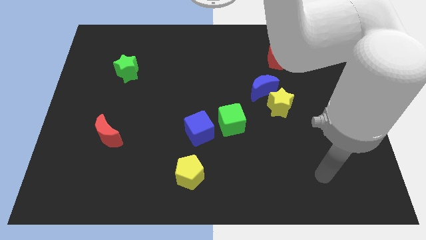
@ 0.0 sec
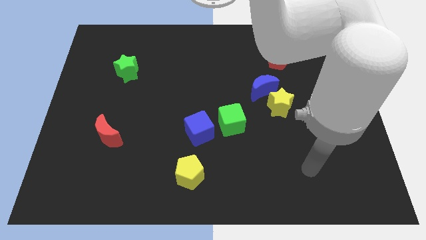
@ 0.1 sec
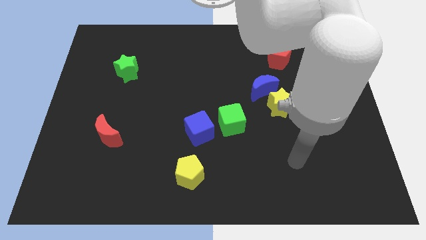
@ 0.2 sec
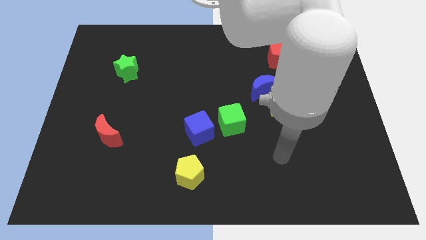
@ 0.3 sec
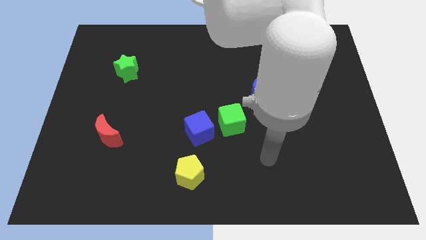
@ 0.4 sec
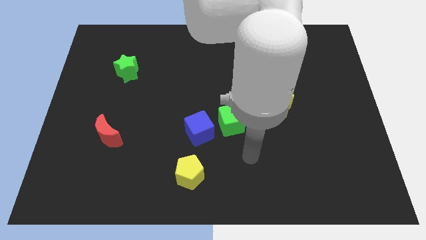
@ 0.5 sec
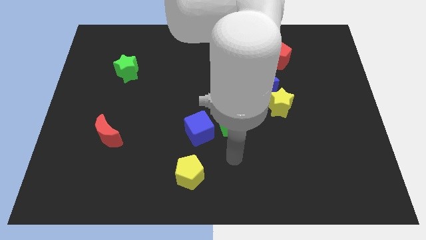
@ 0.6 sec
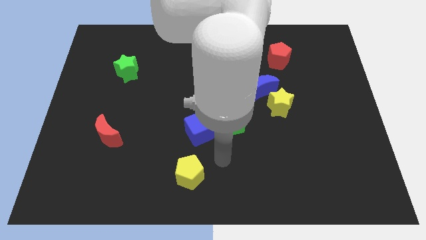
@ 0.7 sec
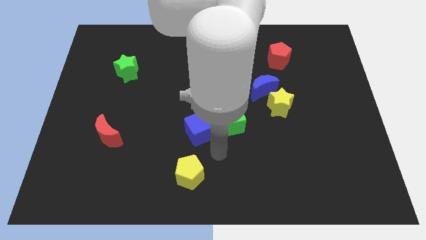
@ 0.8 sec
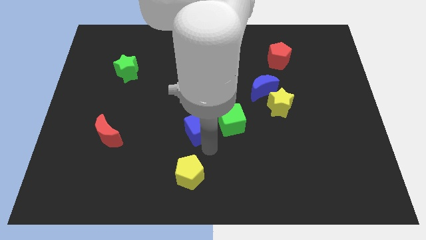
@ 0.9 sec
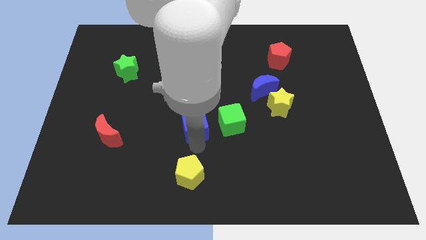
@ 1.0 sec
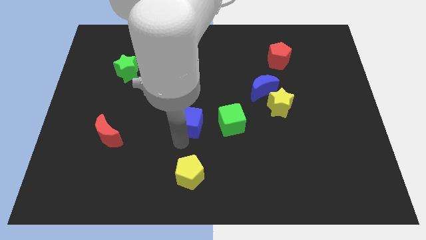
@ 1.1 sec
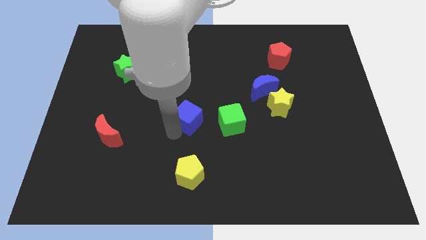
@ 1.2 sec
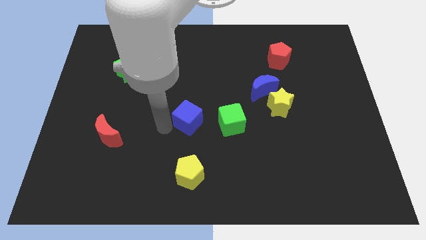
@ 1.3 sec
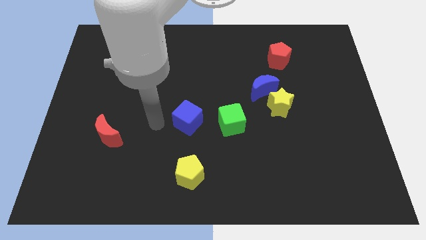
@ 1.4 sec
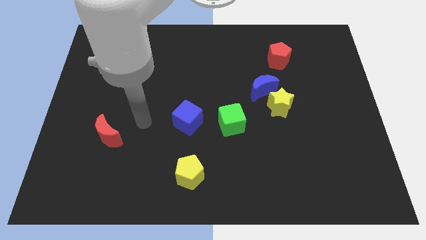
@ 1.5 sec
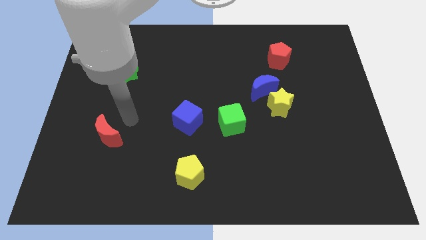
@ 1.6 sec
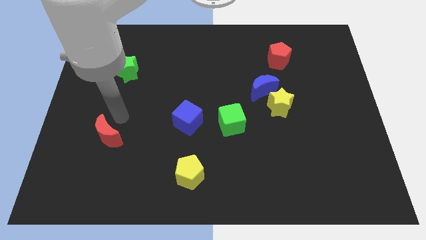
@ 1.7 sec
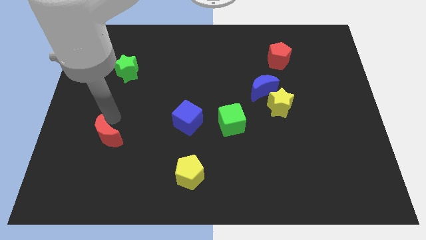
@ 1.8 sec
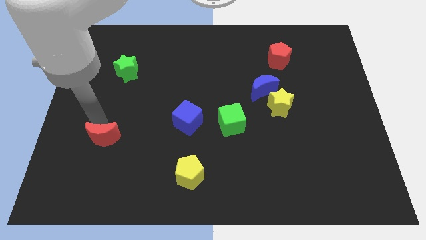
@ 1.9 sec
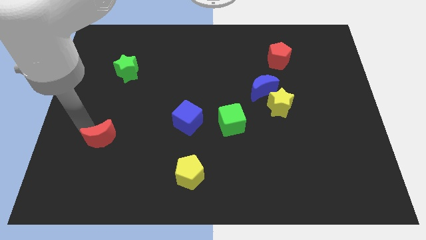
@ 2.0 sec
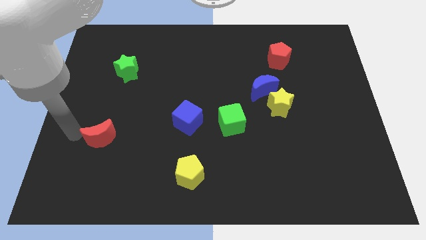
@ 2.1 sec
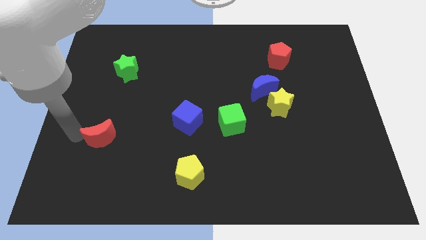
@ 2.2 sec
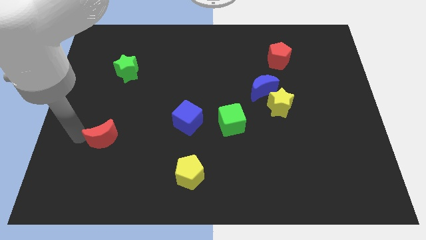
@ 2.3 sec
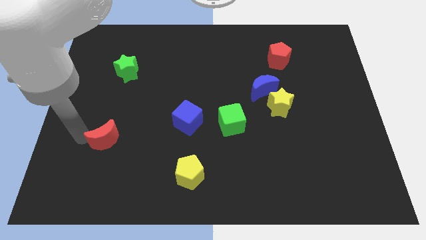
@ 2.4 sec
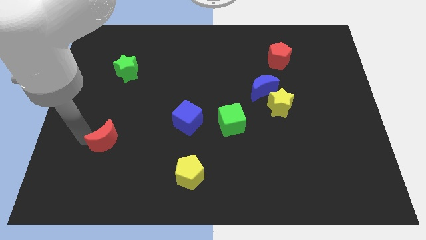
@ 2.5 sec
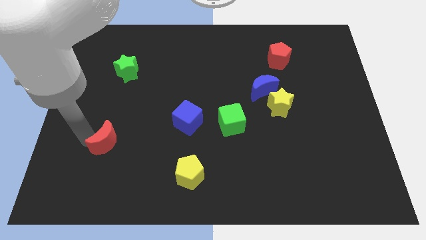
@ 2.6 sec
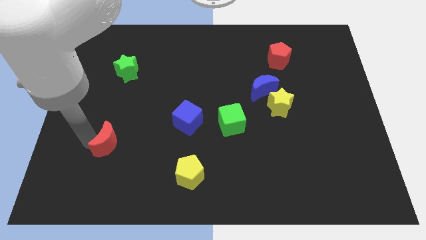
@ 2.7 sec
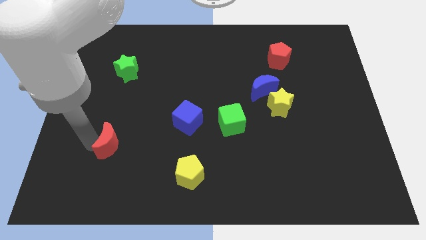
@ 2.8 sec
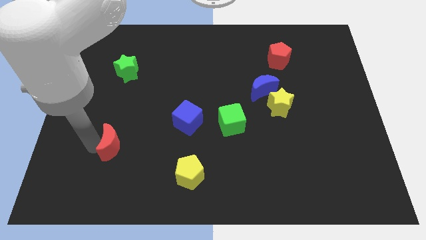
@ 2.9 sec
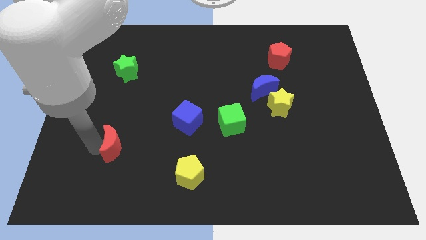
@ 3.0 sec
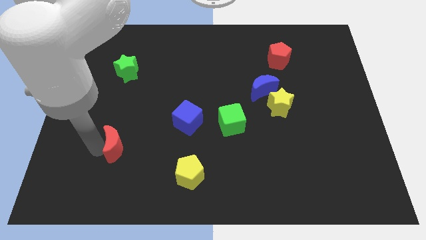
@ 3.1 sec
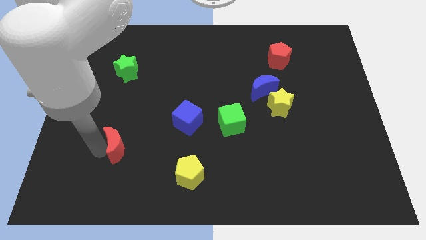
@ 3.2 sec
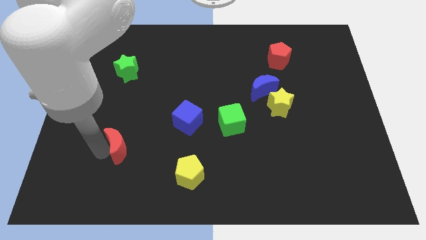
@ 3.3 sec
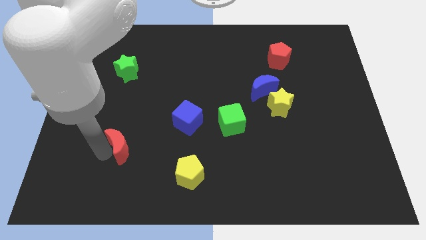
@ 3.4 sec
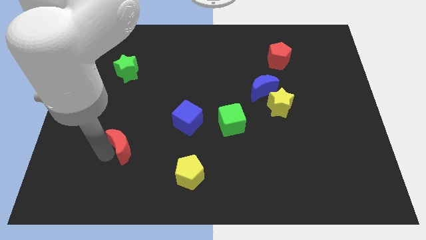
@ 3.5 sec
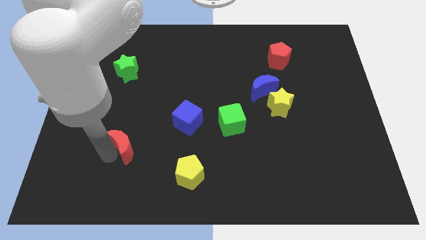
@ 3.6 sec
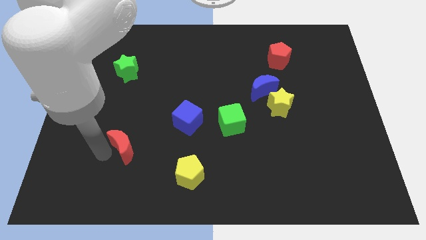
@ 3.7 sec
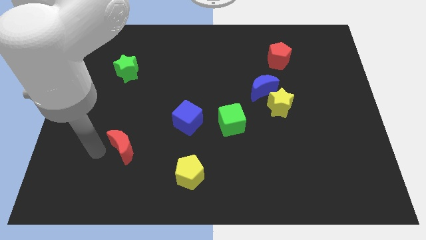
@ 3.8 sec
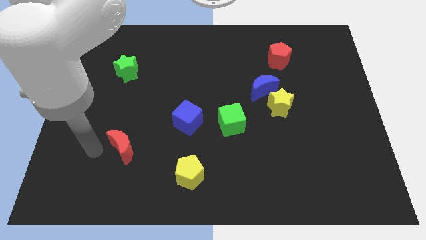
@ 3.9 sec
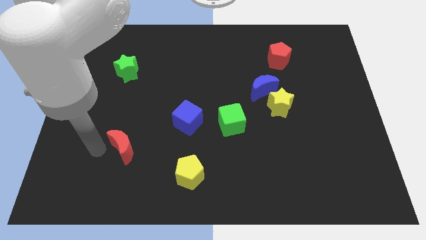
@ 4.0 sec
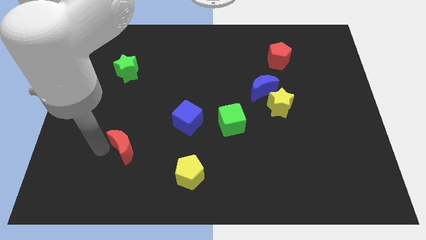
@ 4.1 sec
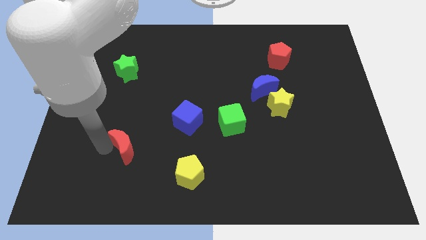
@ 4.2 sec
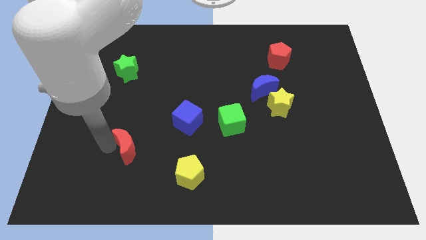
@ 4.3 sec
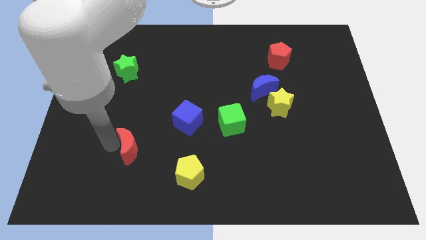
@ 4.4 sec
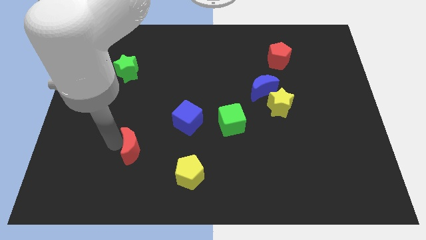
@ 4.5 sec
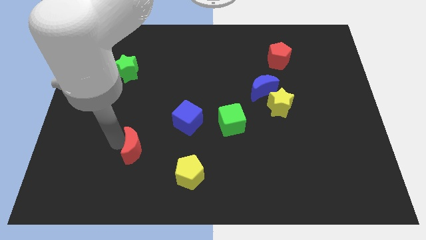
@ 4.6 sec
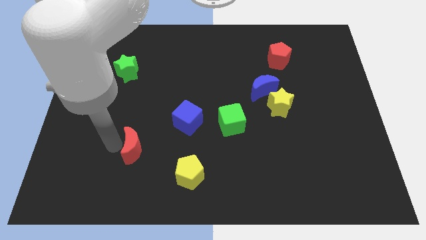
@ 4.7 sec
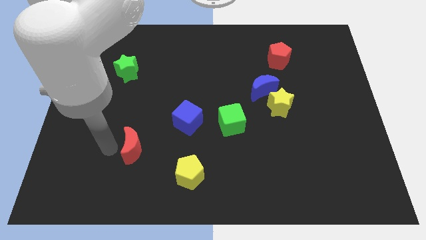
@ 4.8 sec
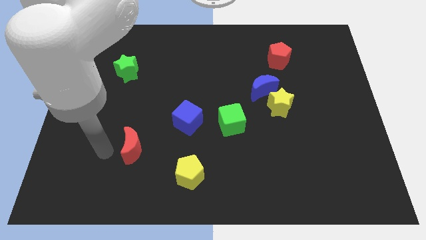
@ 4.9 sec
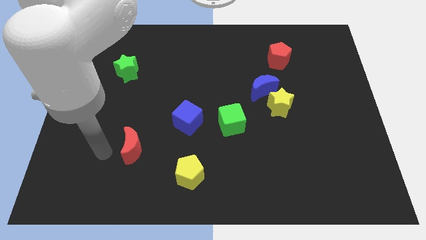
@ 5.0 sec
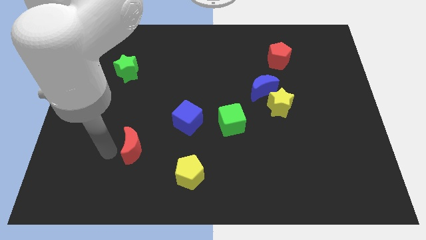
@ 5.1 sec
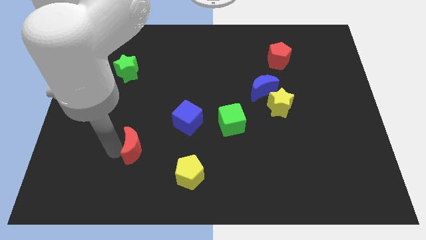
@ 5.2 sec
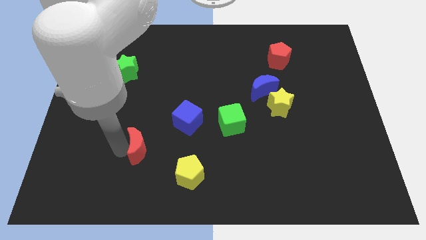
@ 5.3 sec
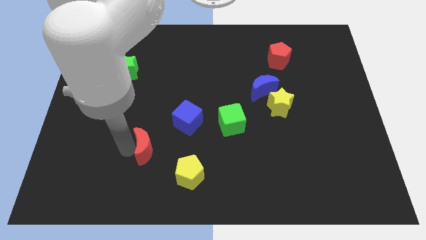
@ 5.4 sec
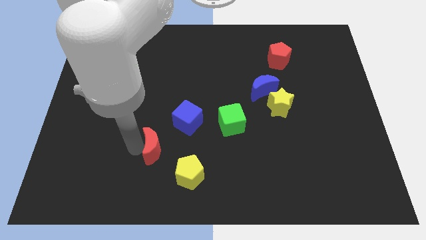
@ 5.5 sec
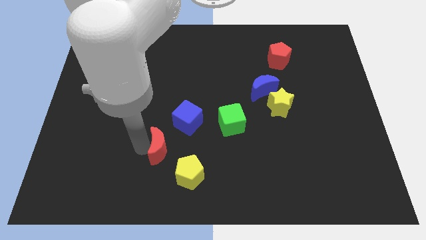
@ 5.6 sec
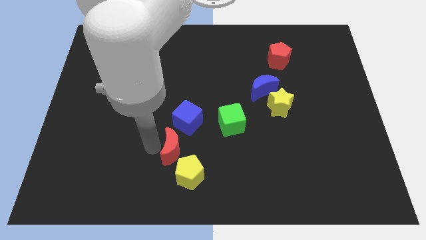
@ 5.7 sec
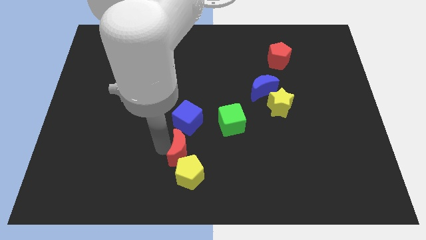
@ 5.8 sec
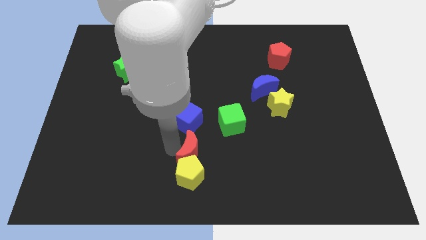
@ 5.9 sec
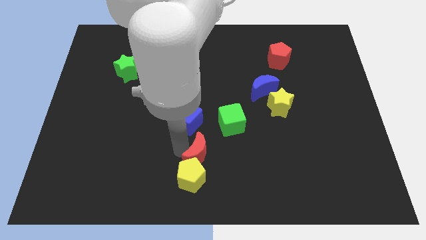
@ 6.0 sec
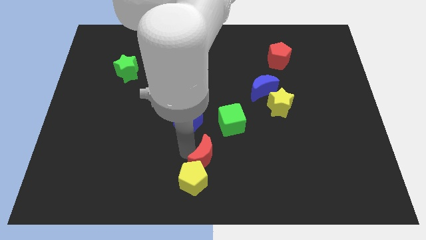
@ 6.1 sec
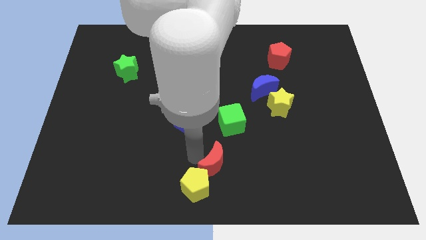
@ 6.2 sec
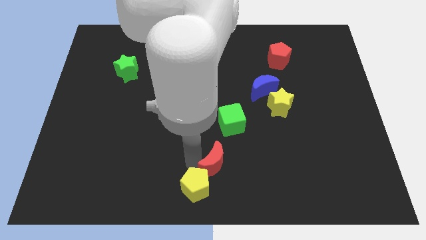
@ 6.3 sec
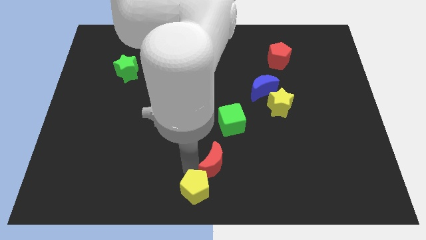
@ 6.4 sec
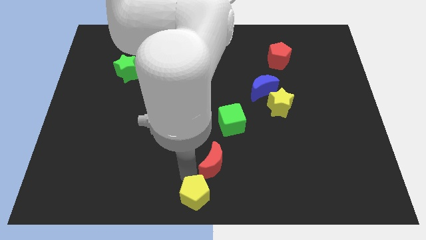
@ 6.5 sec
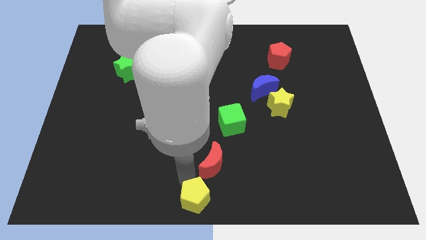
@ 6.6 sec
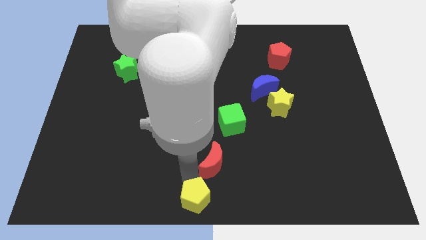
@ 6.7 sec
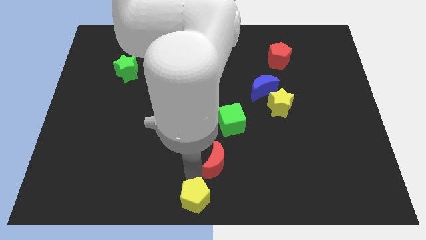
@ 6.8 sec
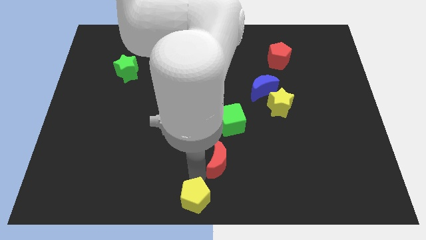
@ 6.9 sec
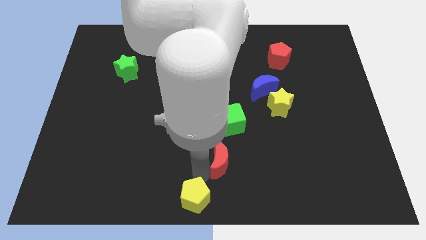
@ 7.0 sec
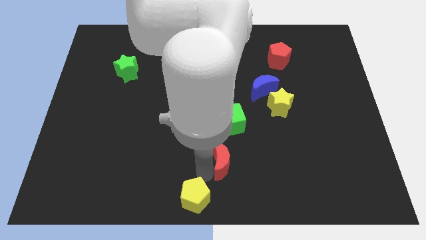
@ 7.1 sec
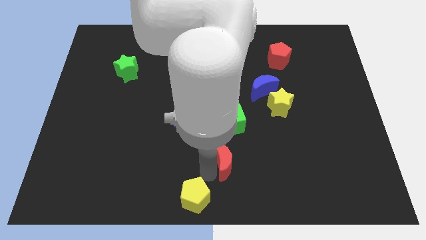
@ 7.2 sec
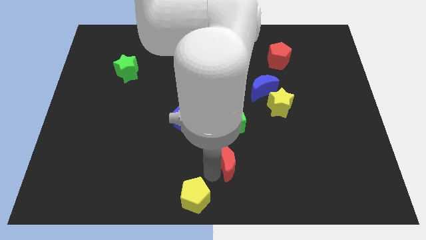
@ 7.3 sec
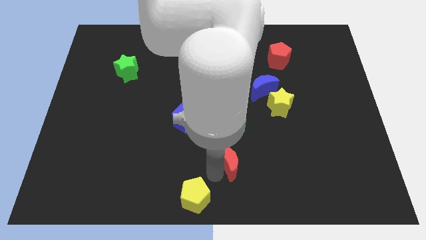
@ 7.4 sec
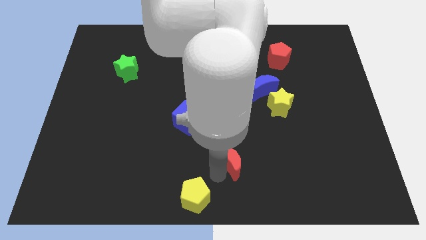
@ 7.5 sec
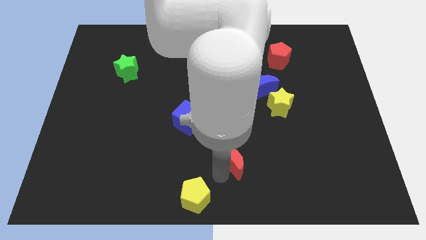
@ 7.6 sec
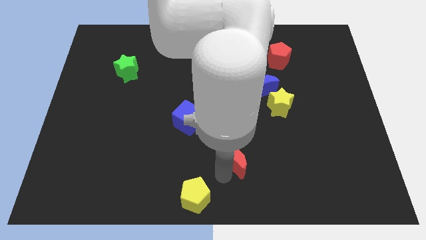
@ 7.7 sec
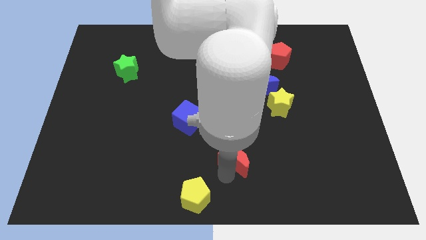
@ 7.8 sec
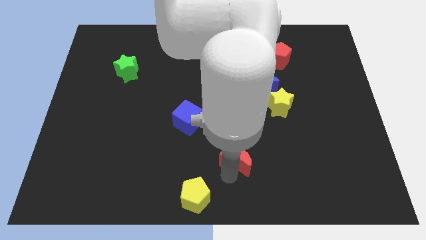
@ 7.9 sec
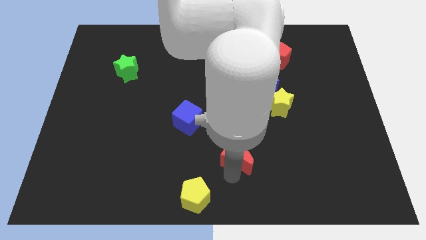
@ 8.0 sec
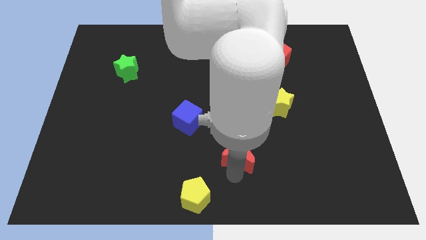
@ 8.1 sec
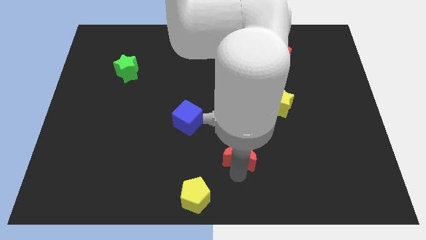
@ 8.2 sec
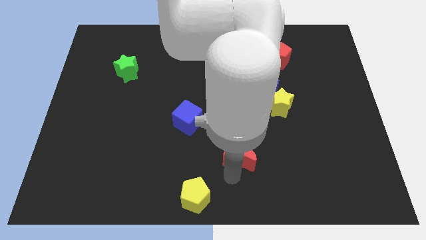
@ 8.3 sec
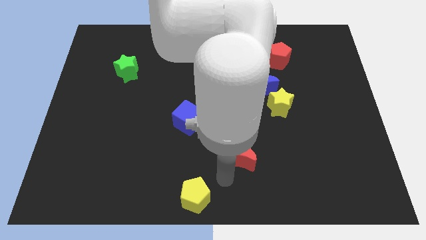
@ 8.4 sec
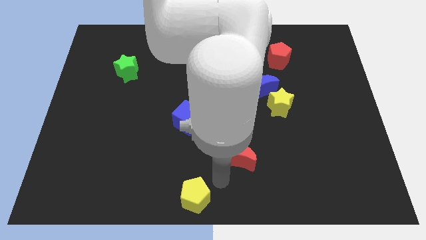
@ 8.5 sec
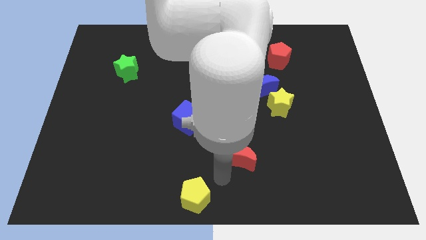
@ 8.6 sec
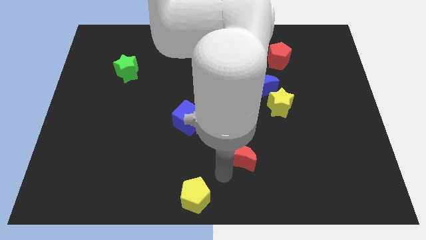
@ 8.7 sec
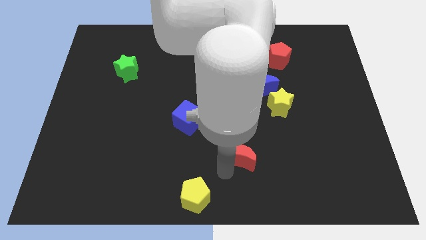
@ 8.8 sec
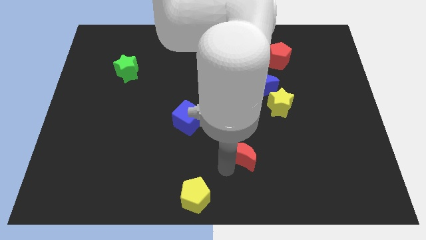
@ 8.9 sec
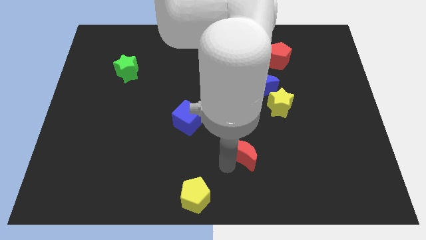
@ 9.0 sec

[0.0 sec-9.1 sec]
push the red moon diagonally down and to the right of the green cube
